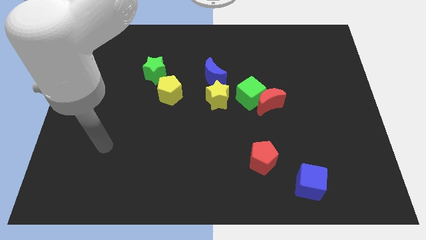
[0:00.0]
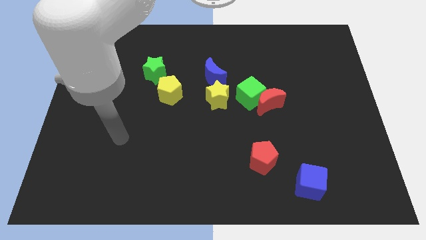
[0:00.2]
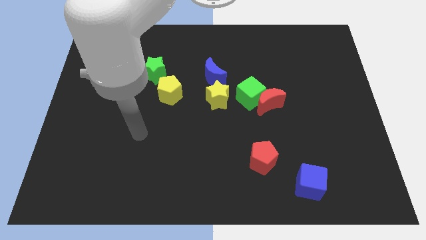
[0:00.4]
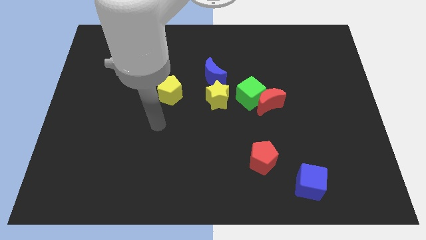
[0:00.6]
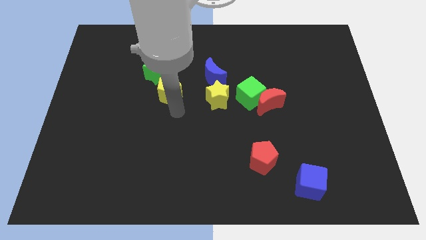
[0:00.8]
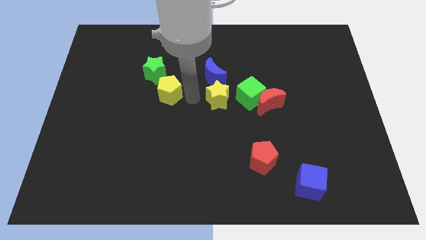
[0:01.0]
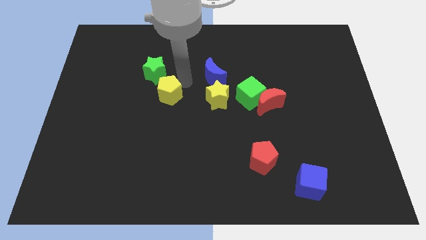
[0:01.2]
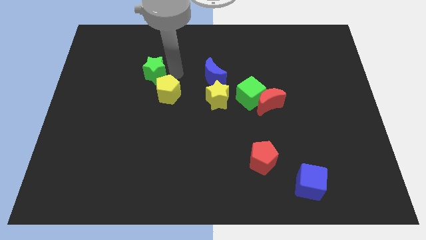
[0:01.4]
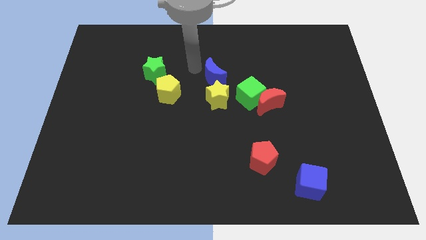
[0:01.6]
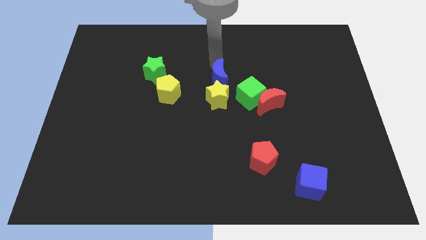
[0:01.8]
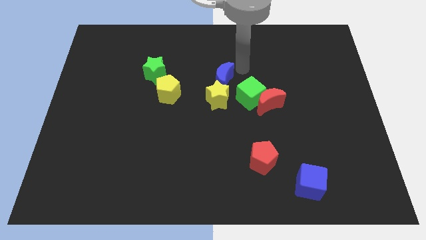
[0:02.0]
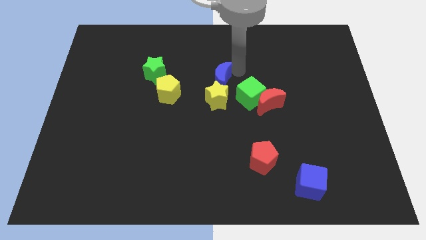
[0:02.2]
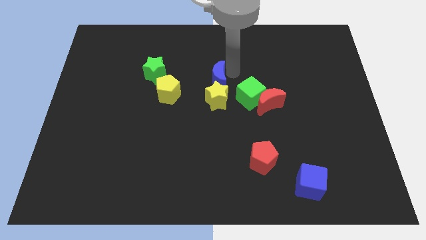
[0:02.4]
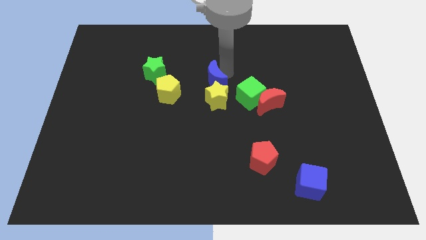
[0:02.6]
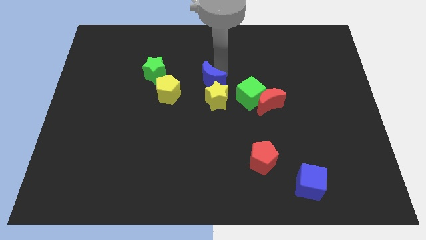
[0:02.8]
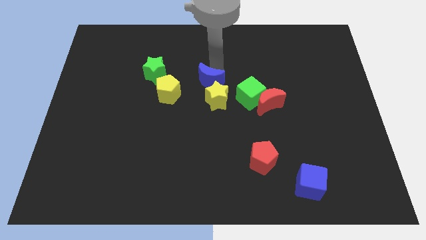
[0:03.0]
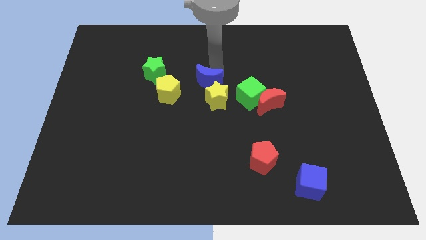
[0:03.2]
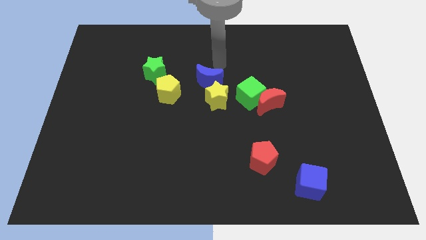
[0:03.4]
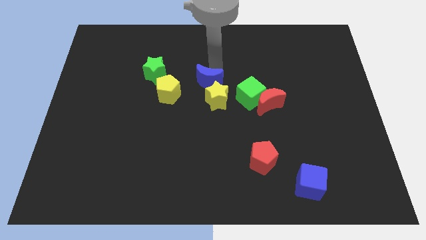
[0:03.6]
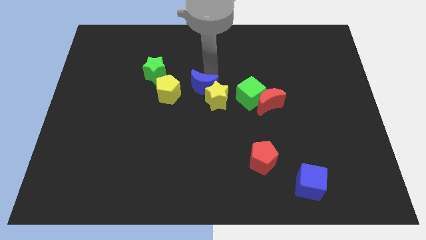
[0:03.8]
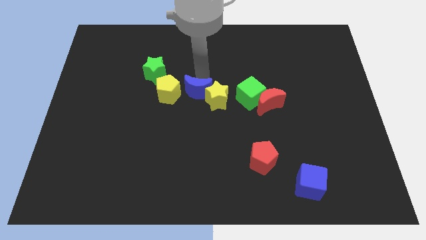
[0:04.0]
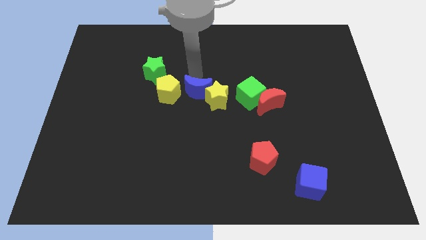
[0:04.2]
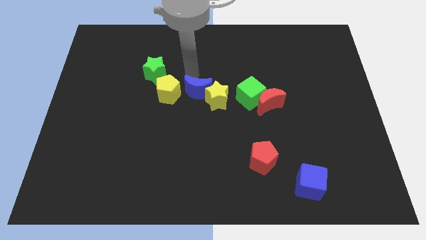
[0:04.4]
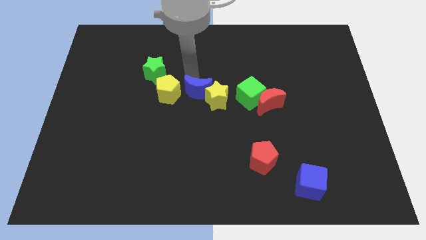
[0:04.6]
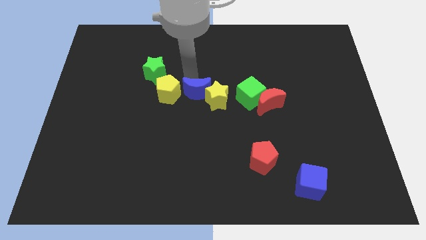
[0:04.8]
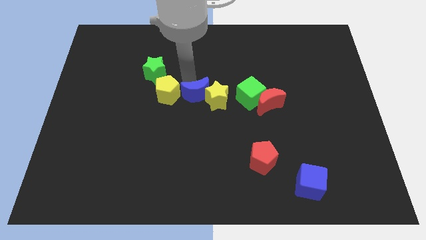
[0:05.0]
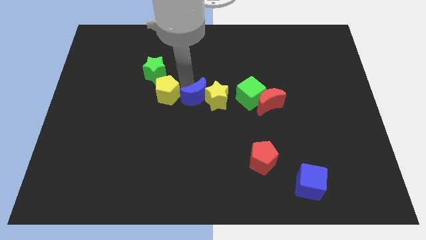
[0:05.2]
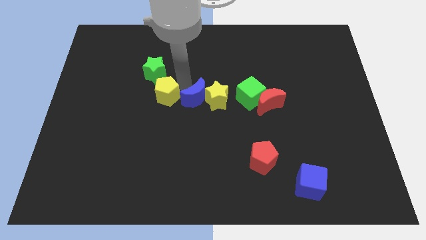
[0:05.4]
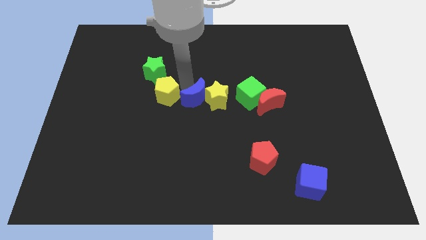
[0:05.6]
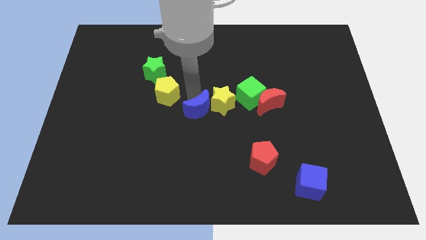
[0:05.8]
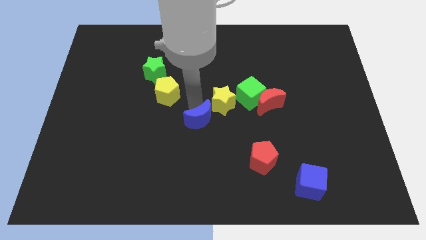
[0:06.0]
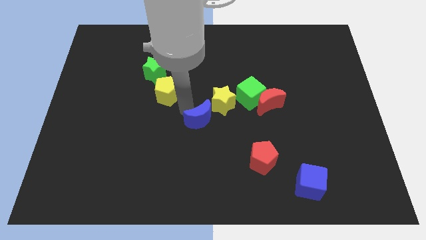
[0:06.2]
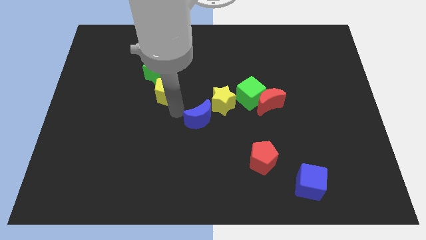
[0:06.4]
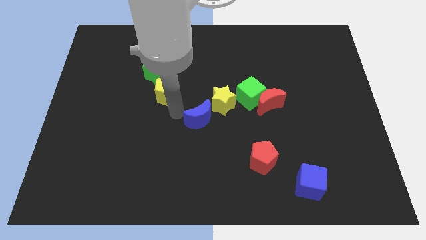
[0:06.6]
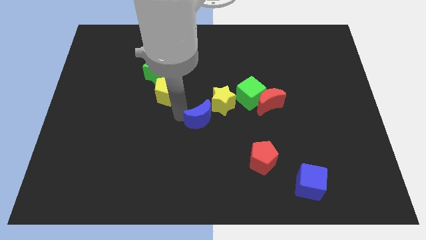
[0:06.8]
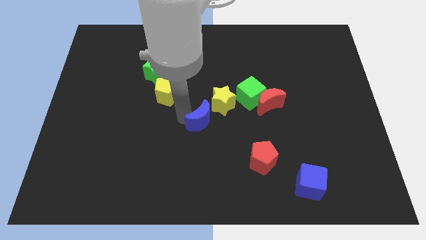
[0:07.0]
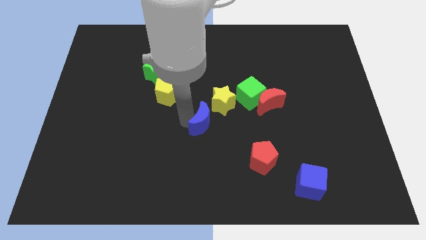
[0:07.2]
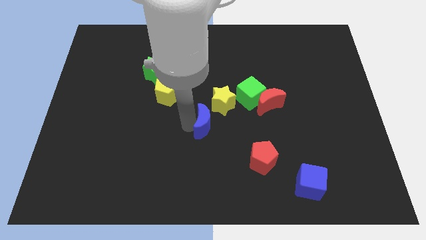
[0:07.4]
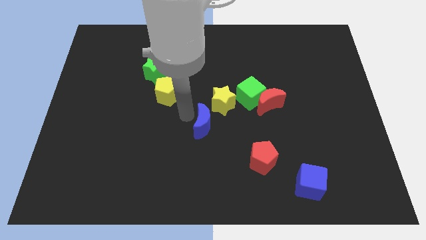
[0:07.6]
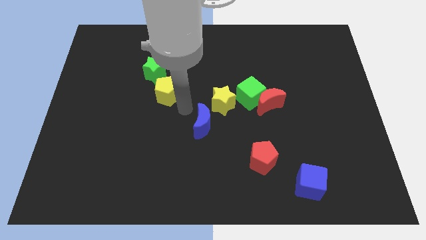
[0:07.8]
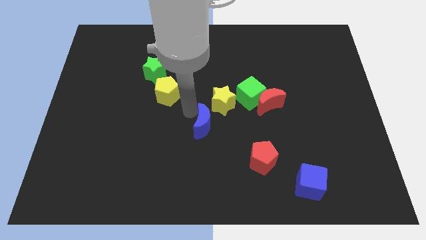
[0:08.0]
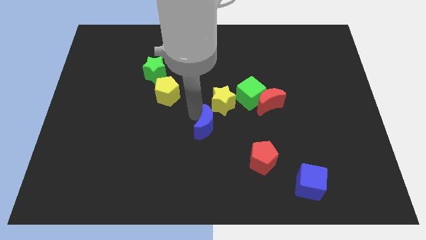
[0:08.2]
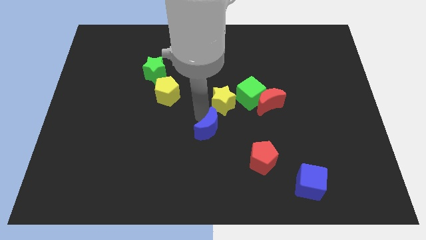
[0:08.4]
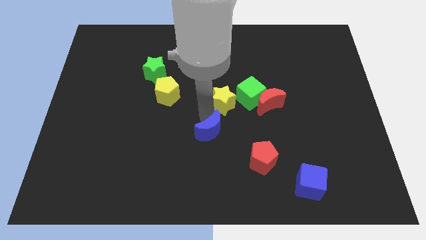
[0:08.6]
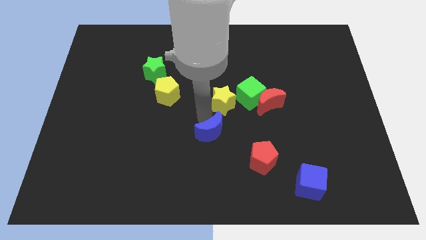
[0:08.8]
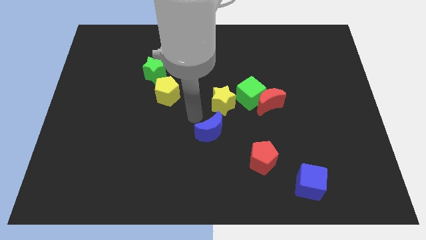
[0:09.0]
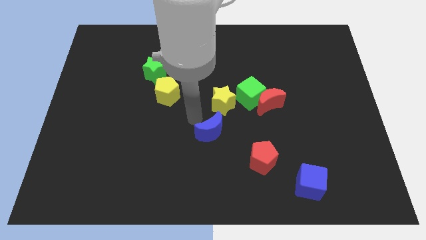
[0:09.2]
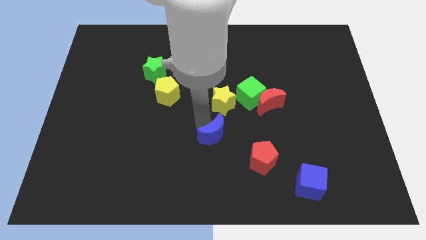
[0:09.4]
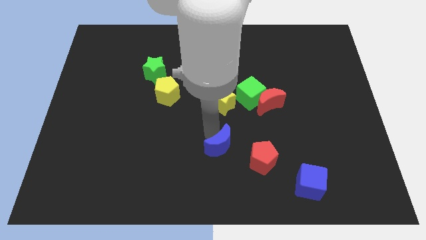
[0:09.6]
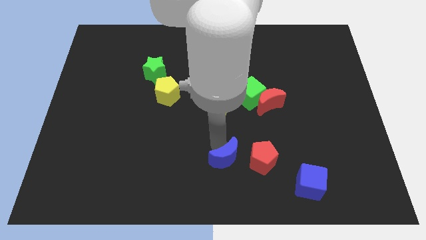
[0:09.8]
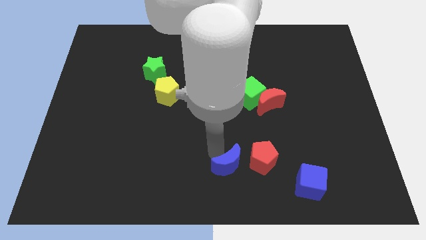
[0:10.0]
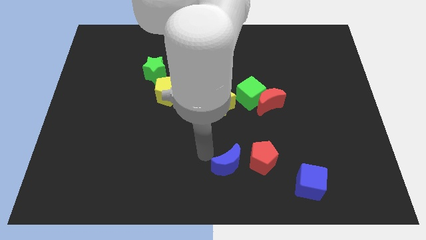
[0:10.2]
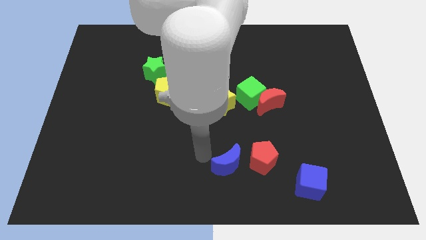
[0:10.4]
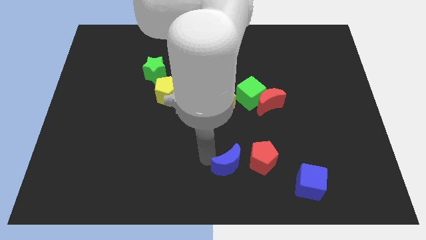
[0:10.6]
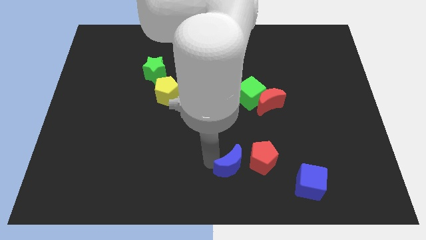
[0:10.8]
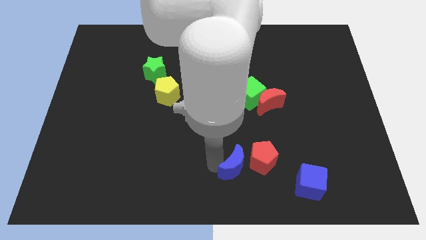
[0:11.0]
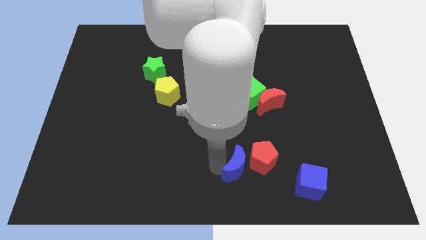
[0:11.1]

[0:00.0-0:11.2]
push the blue moon to the left of the blue cube

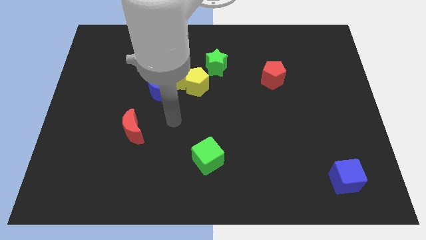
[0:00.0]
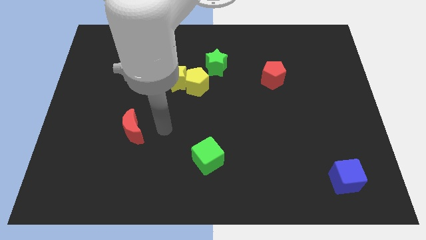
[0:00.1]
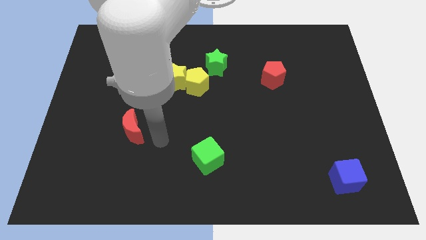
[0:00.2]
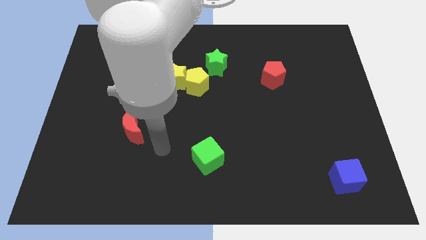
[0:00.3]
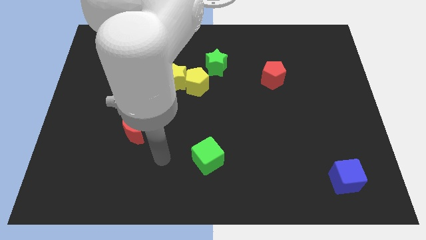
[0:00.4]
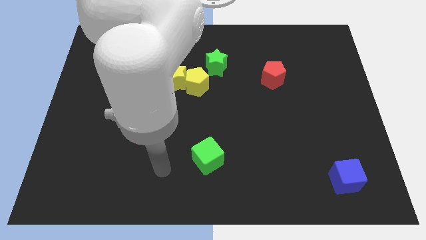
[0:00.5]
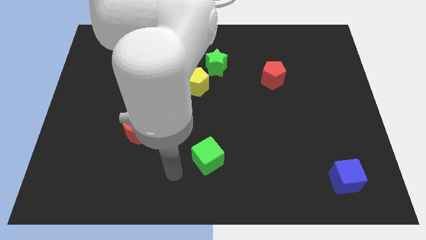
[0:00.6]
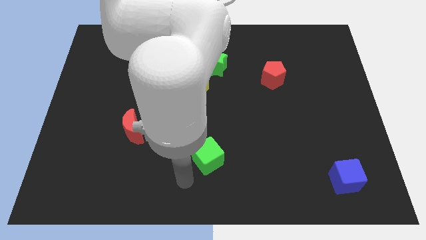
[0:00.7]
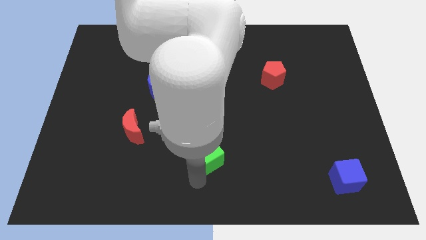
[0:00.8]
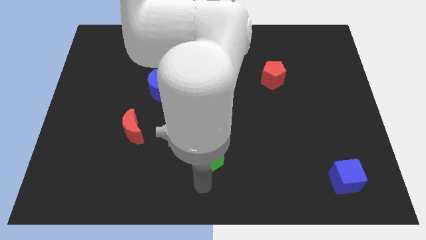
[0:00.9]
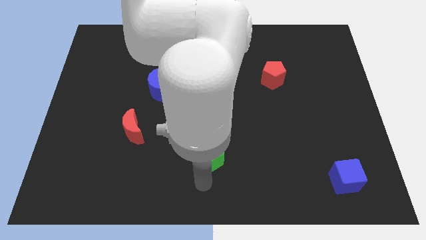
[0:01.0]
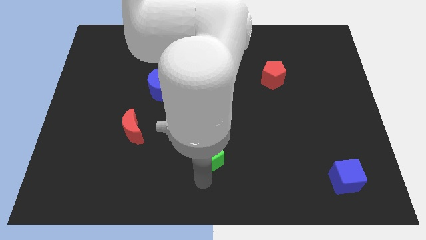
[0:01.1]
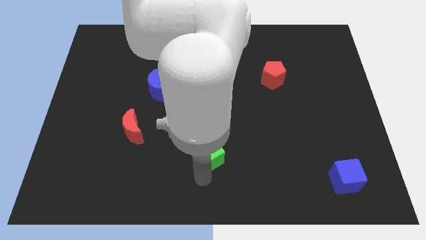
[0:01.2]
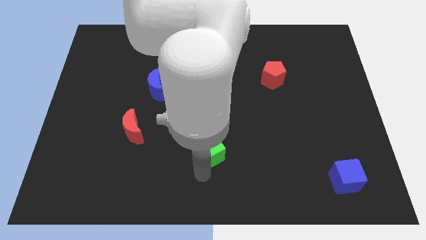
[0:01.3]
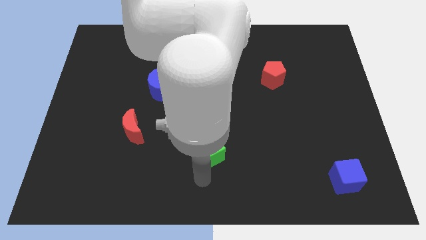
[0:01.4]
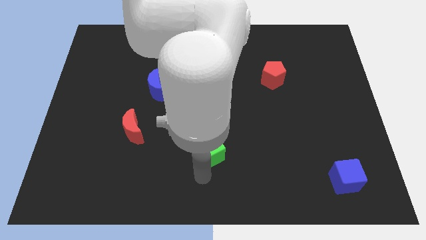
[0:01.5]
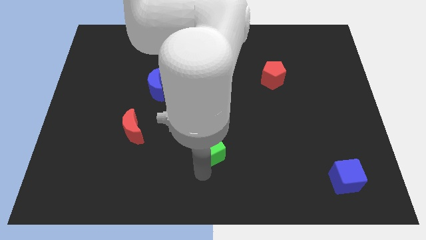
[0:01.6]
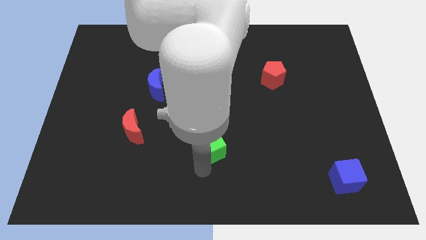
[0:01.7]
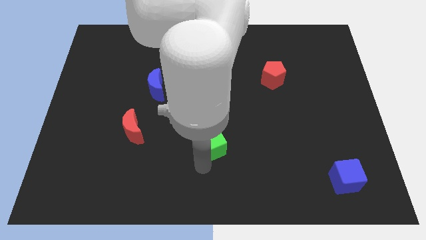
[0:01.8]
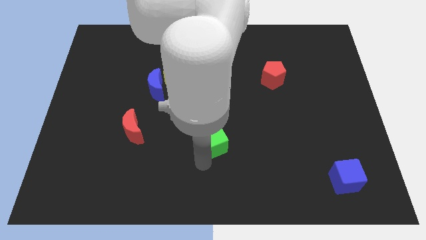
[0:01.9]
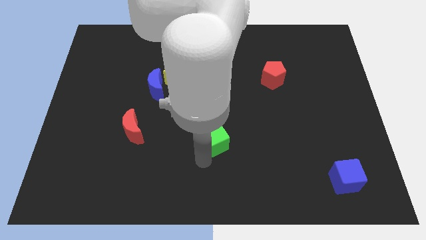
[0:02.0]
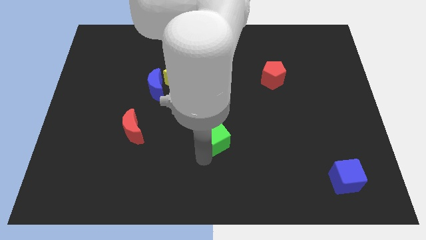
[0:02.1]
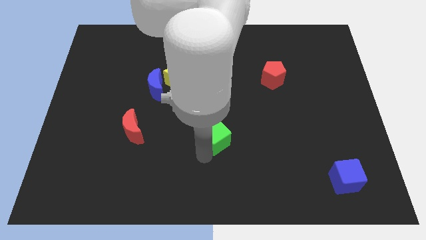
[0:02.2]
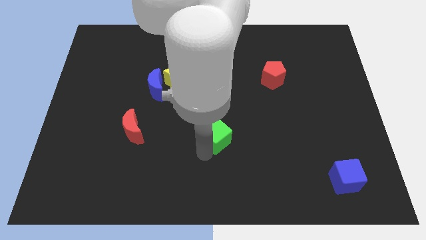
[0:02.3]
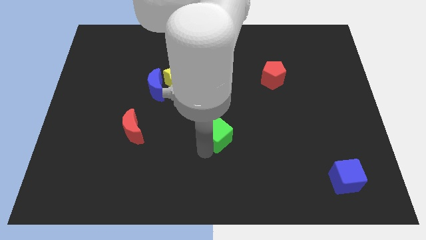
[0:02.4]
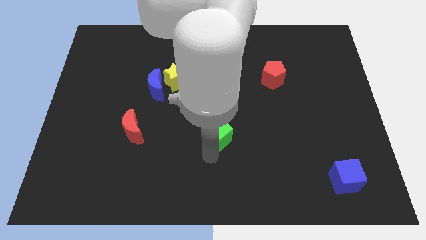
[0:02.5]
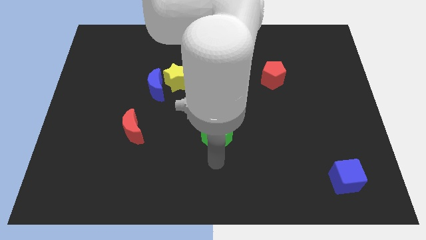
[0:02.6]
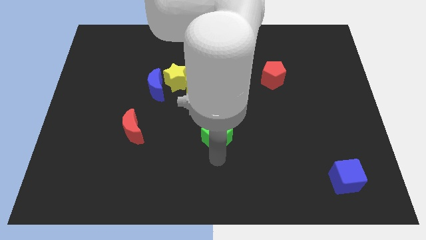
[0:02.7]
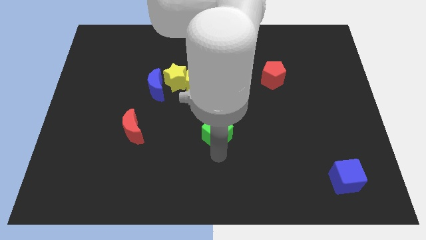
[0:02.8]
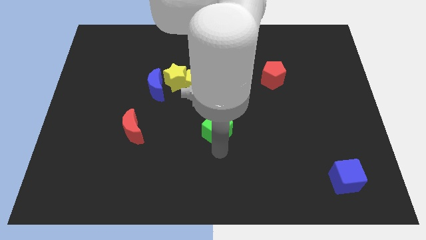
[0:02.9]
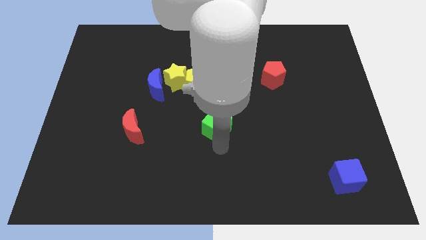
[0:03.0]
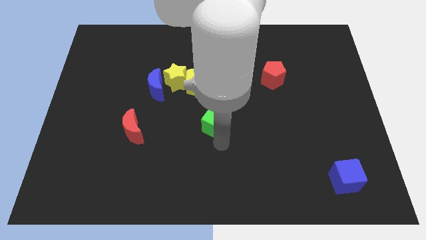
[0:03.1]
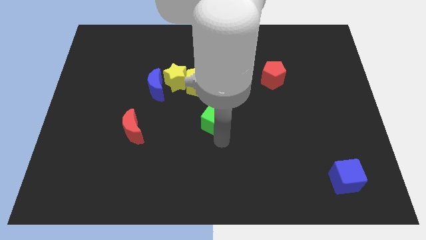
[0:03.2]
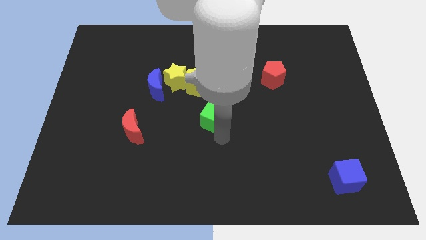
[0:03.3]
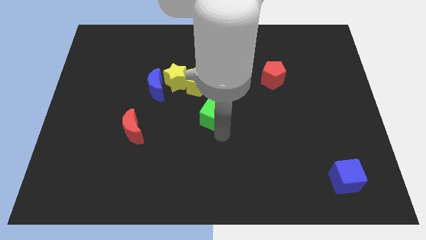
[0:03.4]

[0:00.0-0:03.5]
move the green cube diagonally down and to the right of the yellow pentagon
